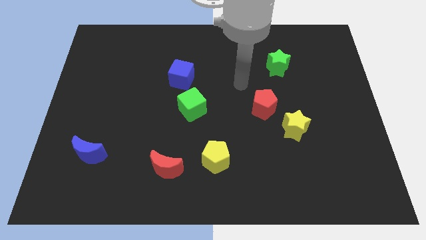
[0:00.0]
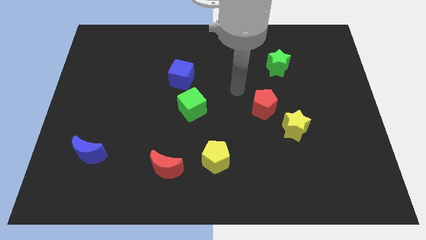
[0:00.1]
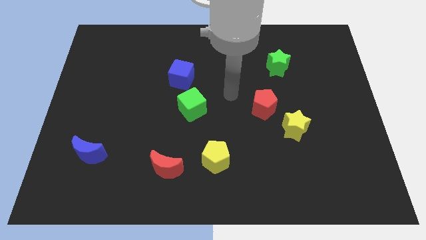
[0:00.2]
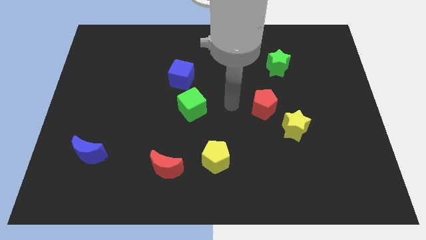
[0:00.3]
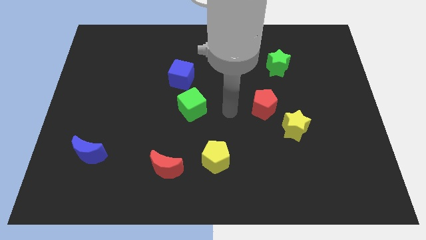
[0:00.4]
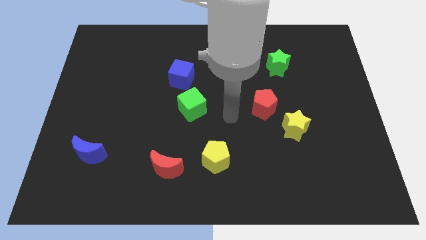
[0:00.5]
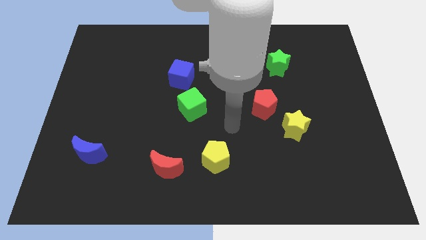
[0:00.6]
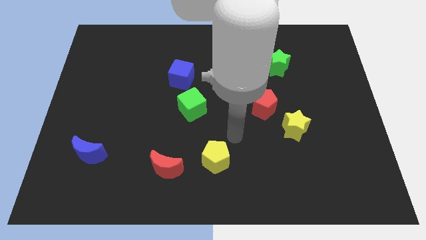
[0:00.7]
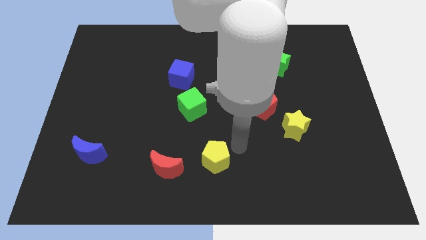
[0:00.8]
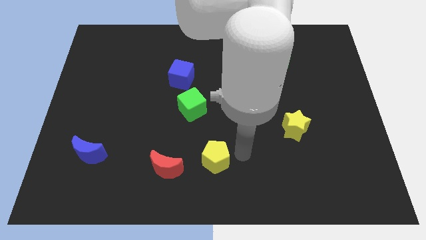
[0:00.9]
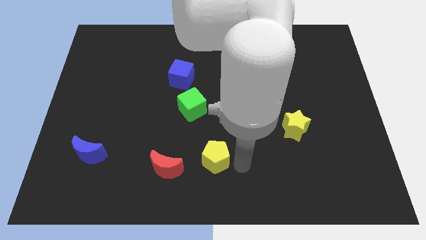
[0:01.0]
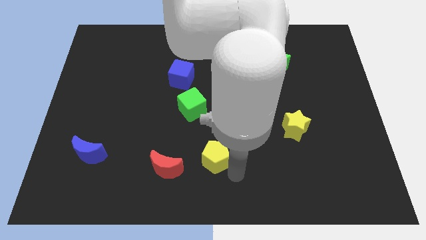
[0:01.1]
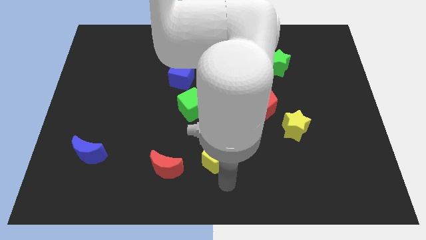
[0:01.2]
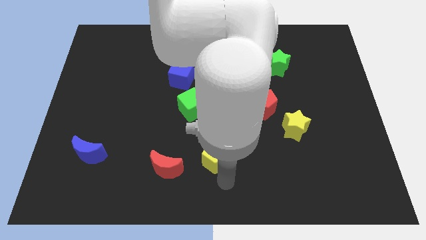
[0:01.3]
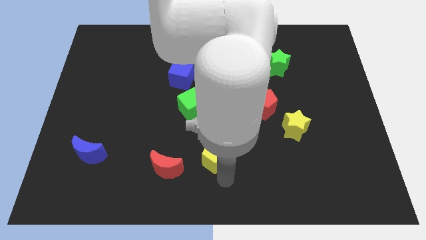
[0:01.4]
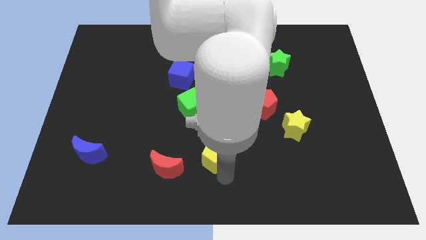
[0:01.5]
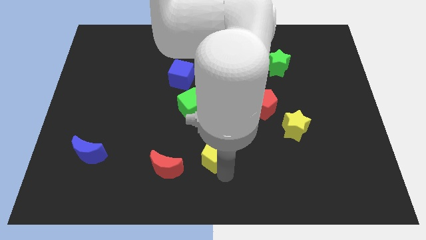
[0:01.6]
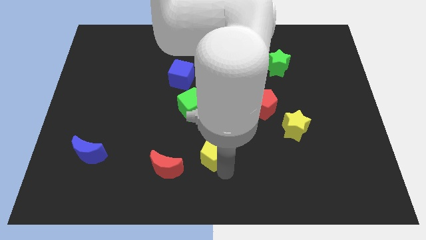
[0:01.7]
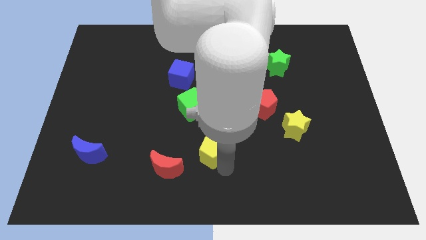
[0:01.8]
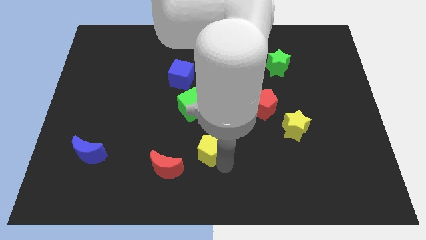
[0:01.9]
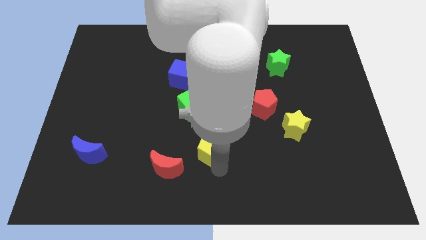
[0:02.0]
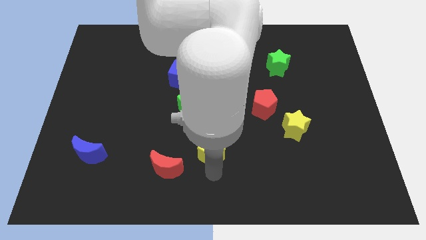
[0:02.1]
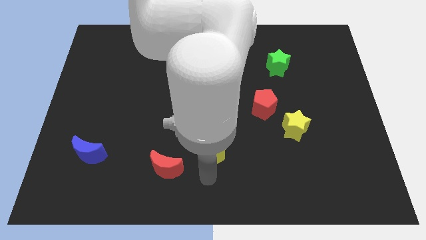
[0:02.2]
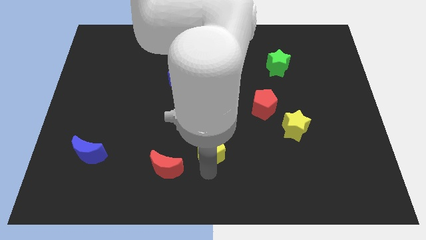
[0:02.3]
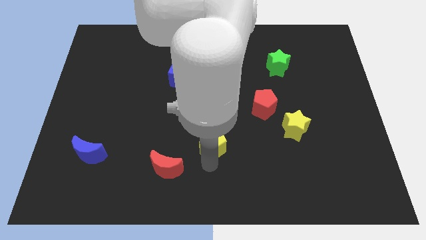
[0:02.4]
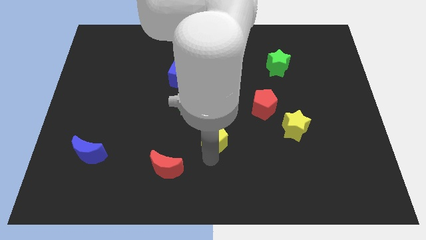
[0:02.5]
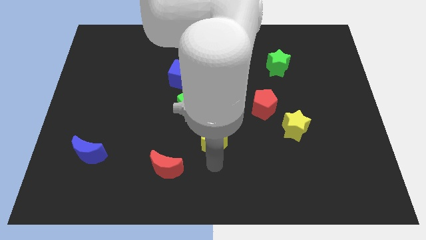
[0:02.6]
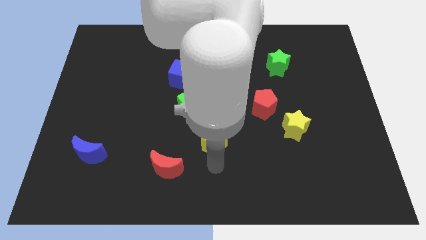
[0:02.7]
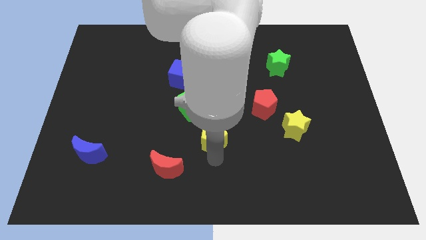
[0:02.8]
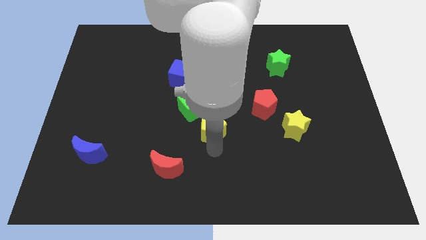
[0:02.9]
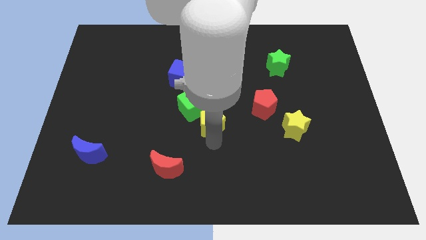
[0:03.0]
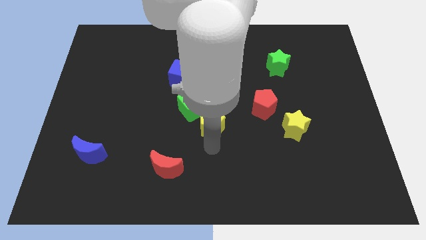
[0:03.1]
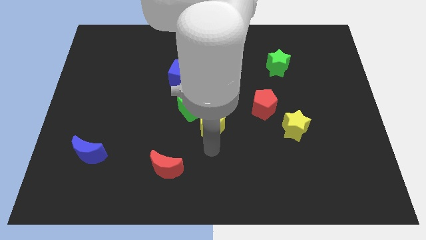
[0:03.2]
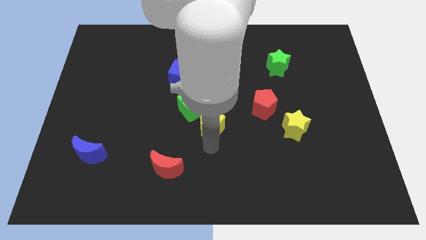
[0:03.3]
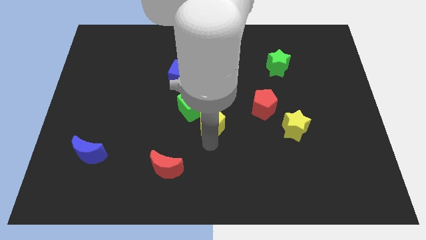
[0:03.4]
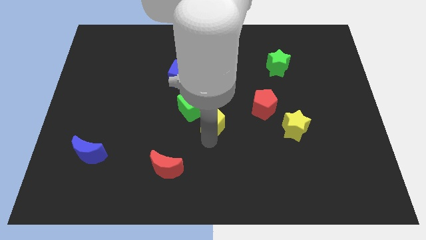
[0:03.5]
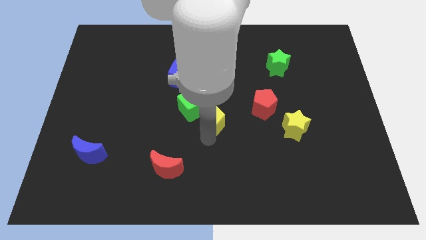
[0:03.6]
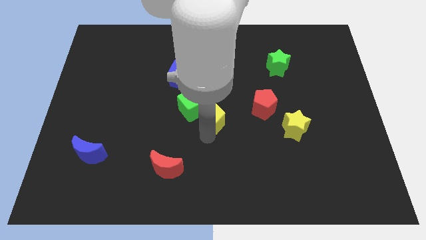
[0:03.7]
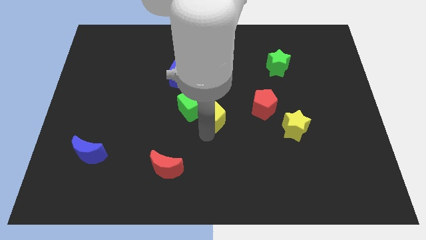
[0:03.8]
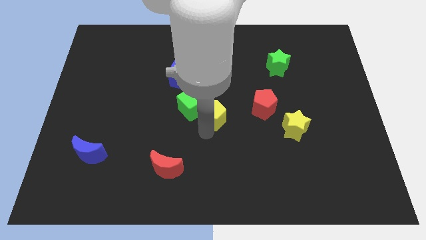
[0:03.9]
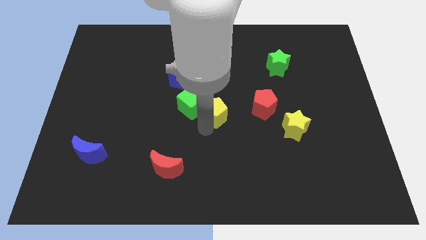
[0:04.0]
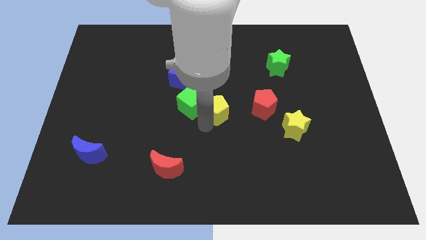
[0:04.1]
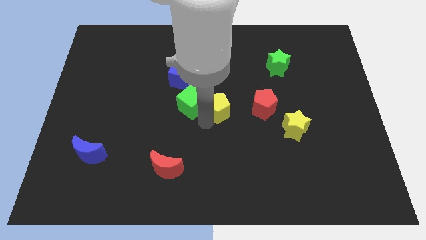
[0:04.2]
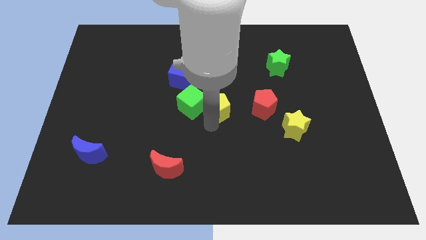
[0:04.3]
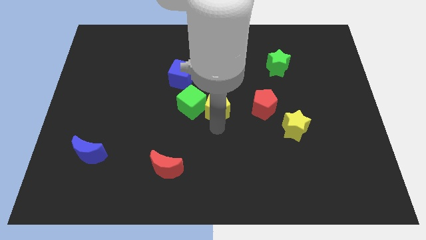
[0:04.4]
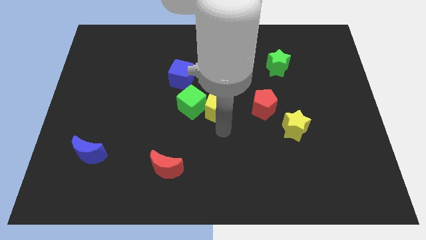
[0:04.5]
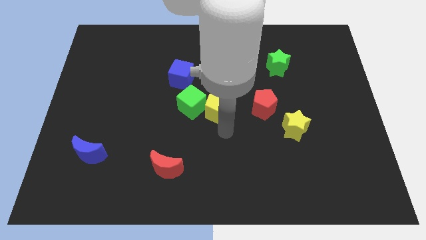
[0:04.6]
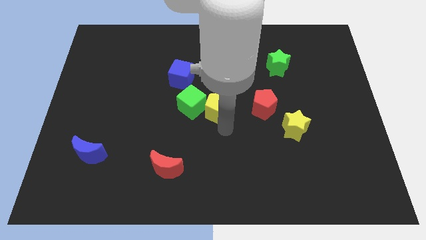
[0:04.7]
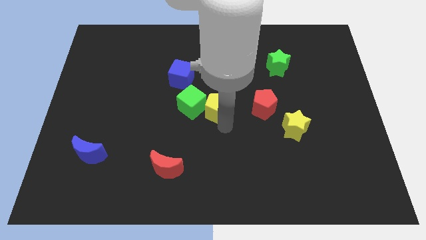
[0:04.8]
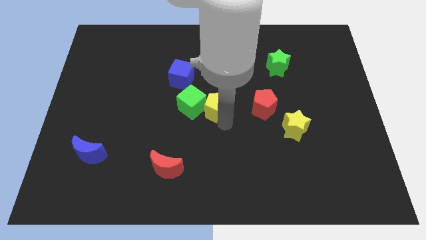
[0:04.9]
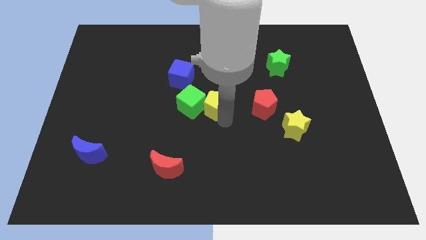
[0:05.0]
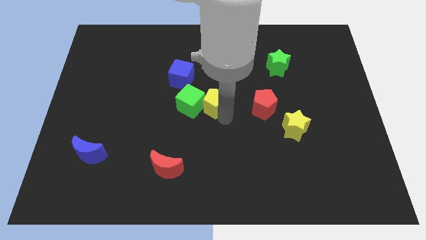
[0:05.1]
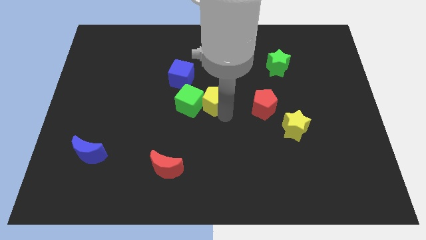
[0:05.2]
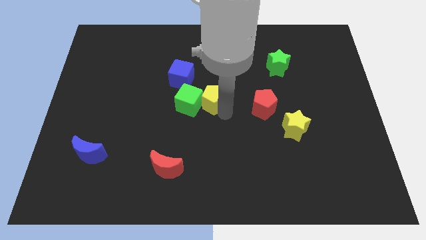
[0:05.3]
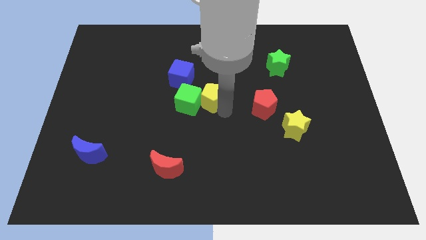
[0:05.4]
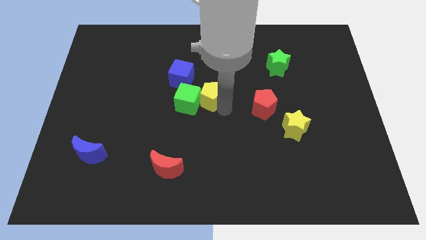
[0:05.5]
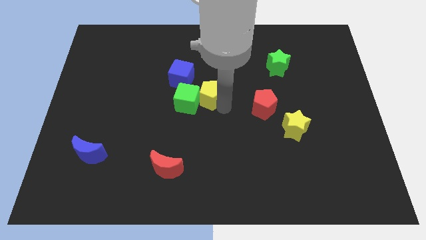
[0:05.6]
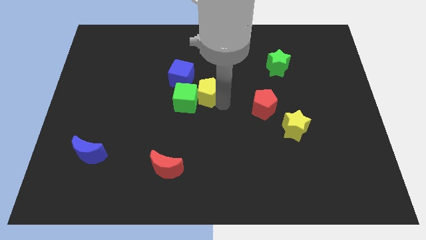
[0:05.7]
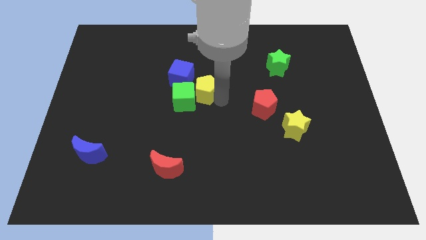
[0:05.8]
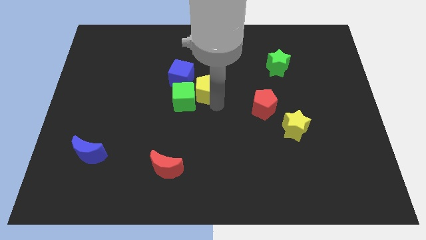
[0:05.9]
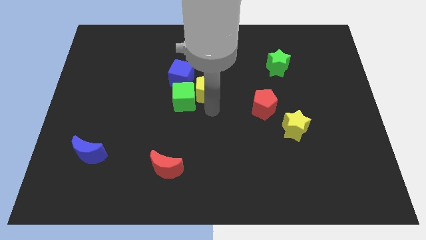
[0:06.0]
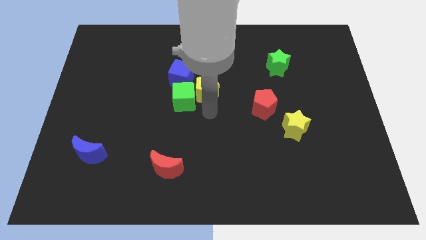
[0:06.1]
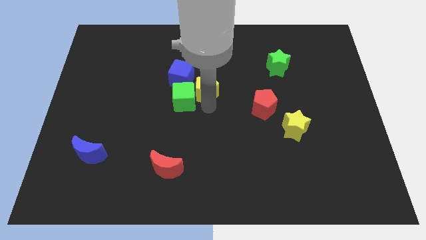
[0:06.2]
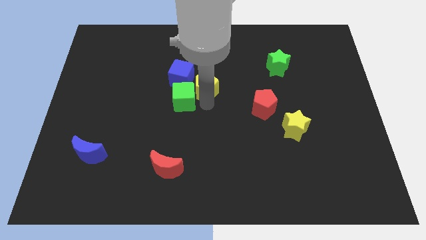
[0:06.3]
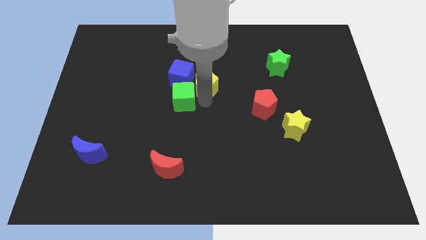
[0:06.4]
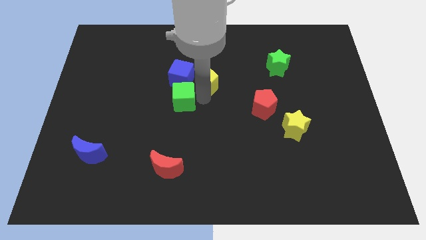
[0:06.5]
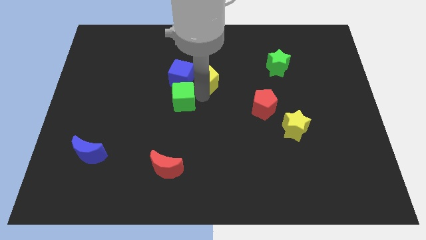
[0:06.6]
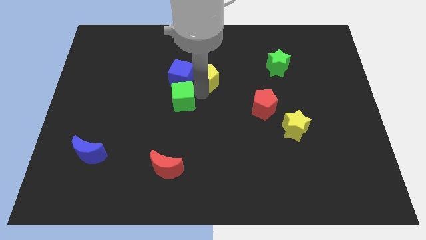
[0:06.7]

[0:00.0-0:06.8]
move the yellow pentagon diagonally up and to the right of the blue cube

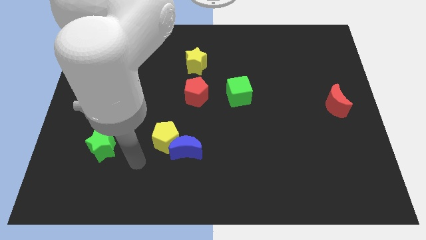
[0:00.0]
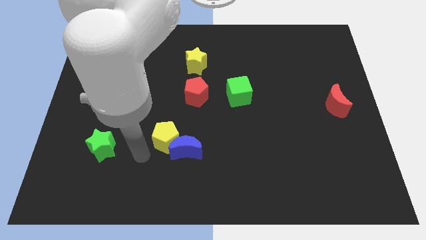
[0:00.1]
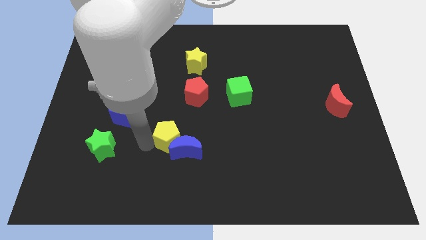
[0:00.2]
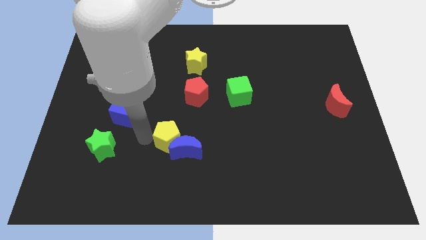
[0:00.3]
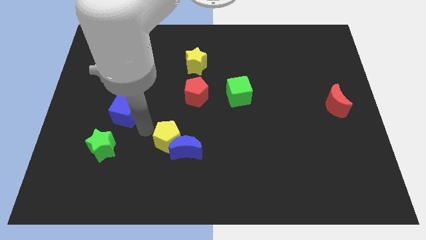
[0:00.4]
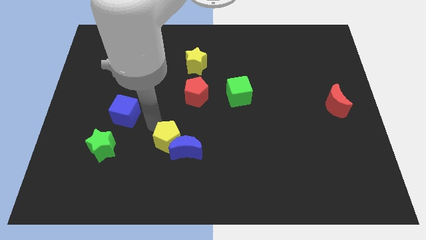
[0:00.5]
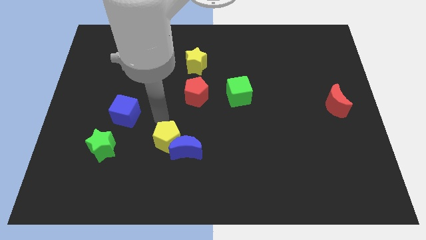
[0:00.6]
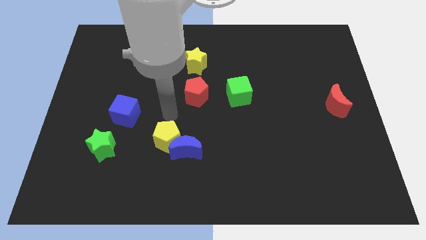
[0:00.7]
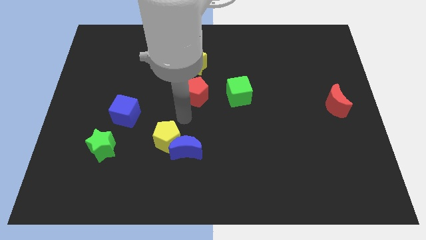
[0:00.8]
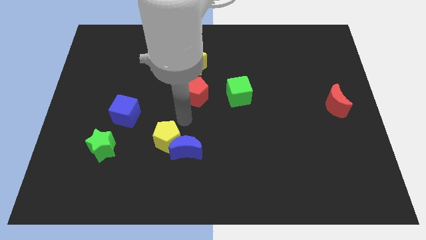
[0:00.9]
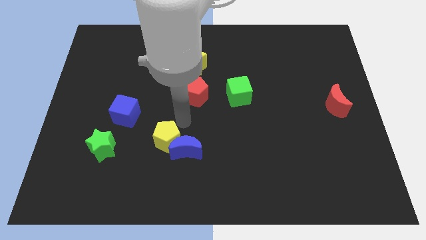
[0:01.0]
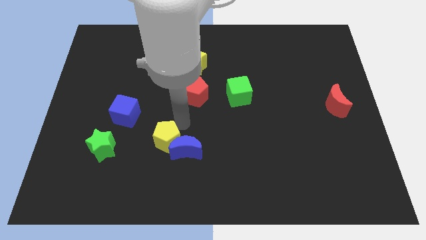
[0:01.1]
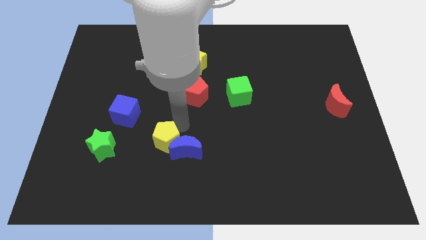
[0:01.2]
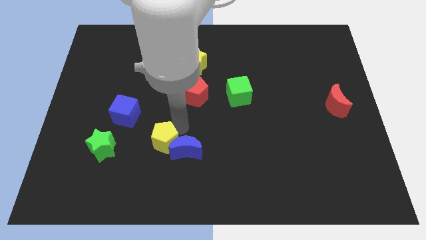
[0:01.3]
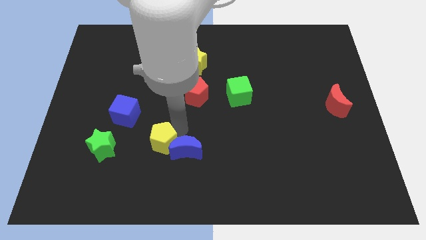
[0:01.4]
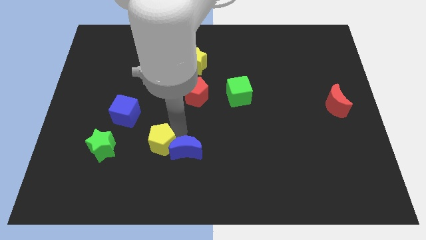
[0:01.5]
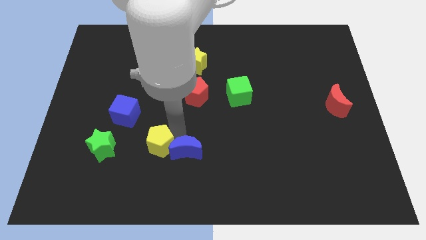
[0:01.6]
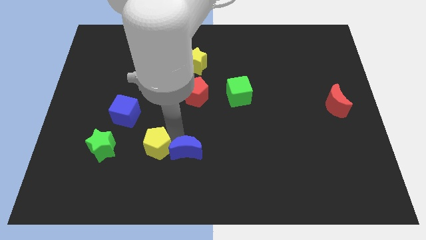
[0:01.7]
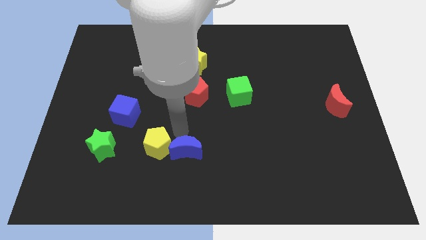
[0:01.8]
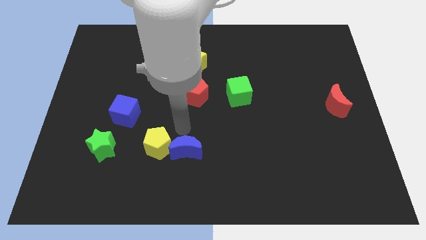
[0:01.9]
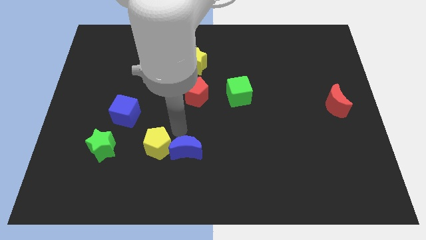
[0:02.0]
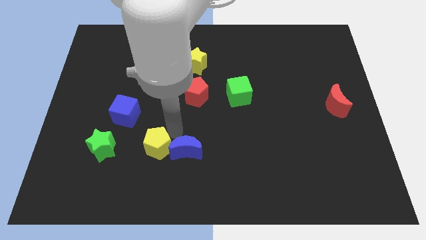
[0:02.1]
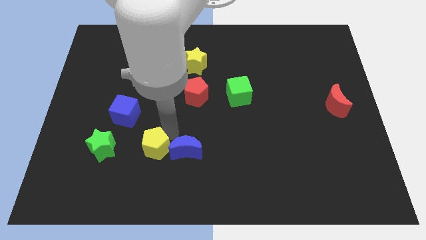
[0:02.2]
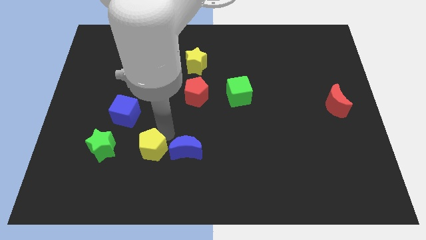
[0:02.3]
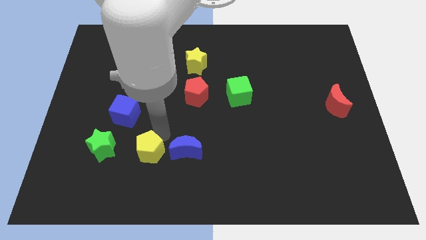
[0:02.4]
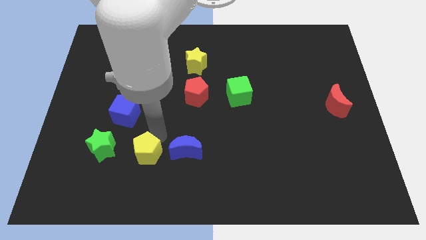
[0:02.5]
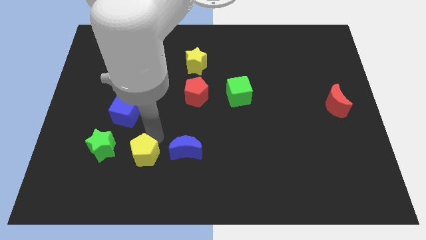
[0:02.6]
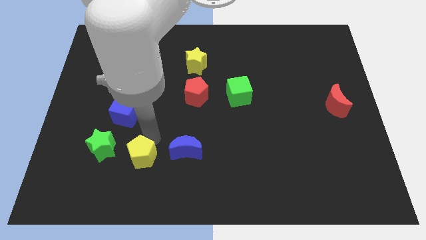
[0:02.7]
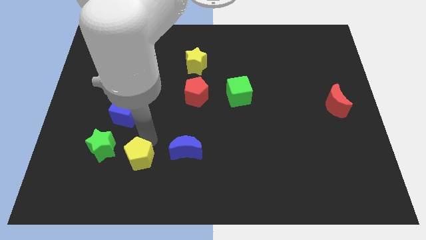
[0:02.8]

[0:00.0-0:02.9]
slide the yellow pentagon to the bottom right side of the green star
